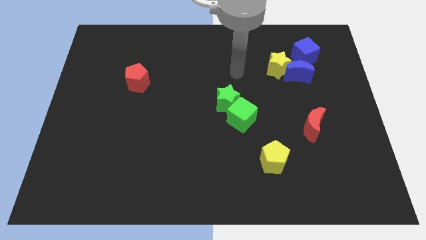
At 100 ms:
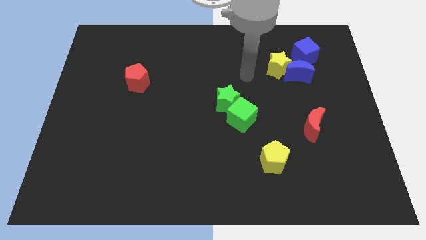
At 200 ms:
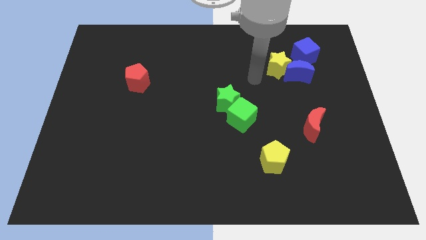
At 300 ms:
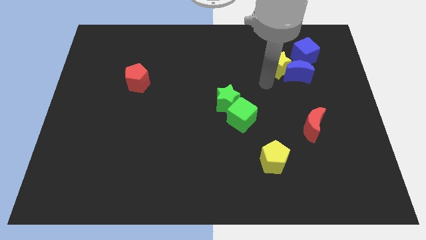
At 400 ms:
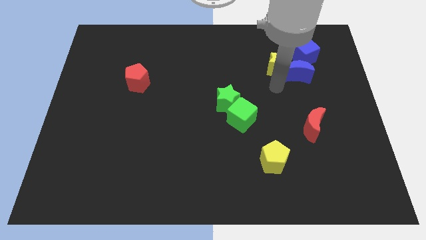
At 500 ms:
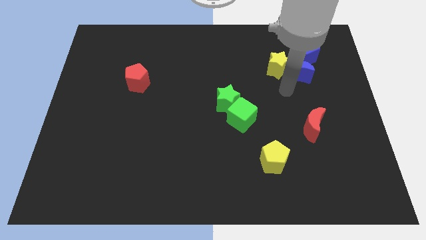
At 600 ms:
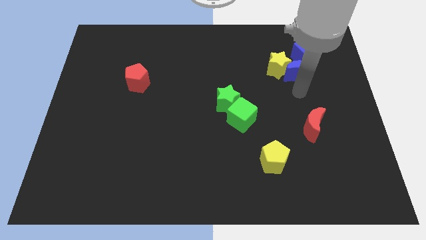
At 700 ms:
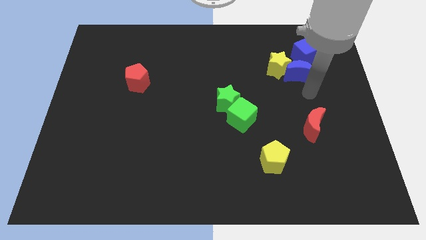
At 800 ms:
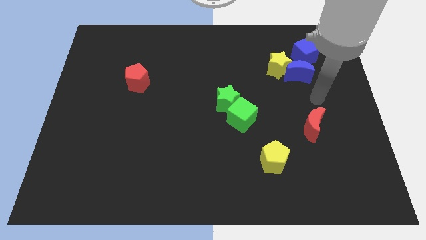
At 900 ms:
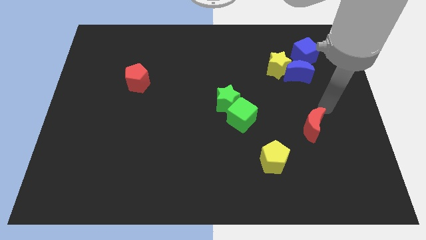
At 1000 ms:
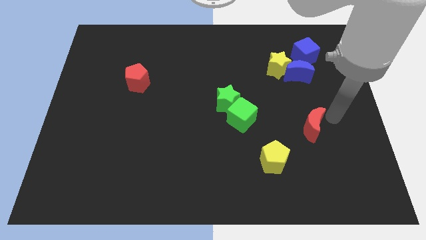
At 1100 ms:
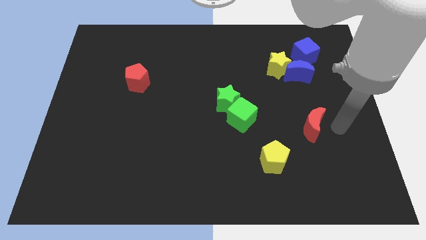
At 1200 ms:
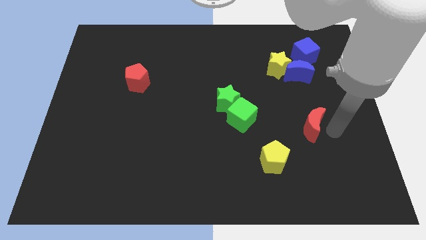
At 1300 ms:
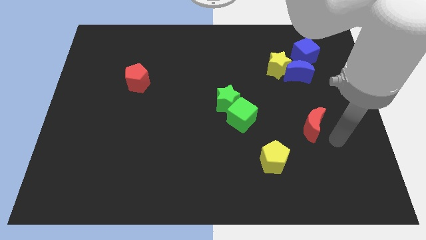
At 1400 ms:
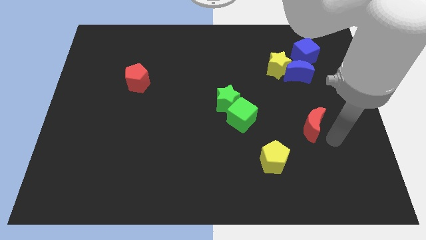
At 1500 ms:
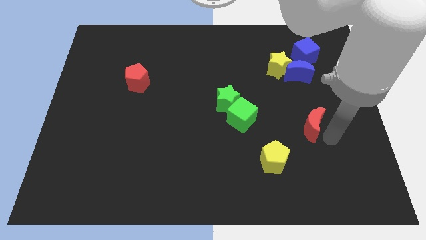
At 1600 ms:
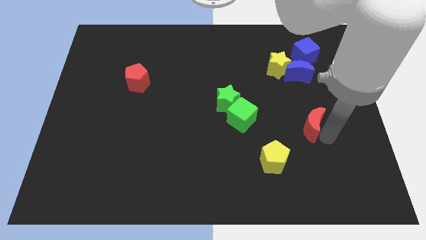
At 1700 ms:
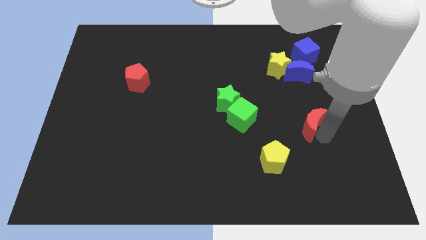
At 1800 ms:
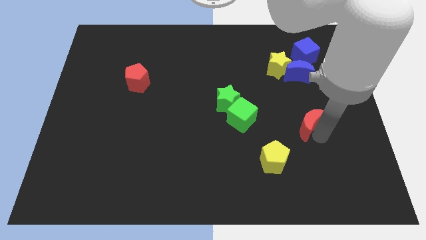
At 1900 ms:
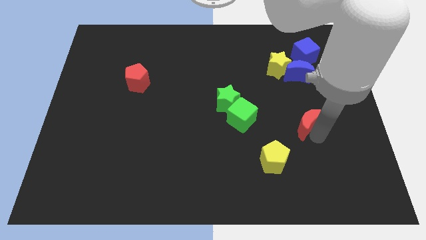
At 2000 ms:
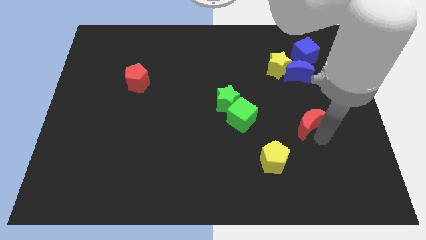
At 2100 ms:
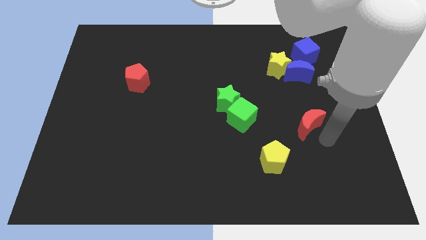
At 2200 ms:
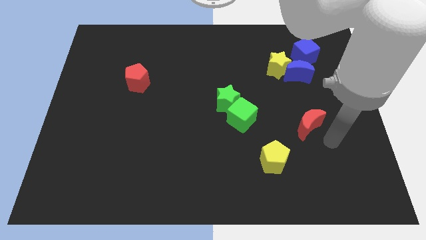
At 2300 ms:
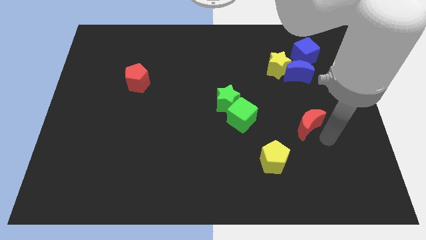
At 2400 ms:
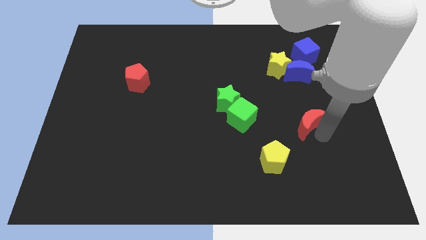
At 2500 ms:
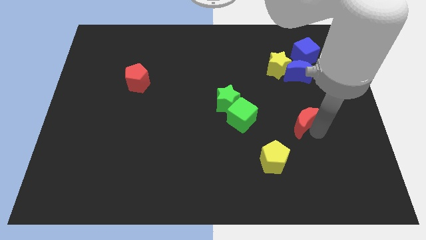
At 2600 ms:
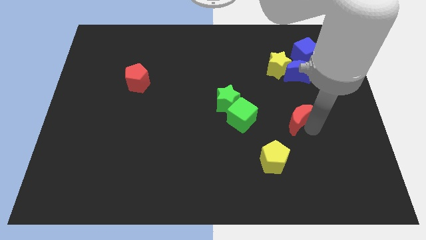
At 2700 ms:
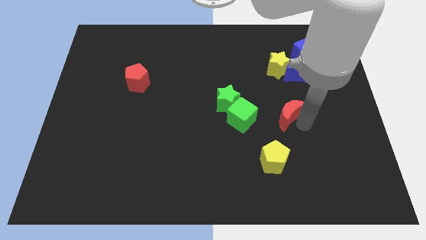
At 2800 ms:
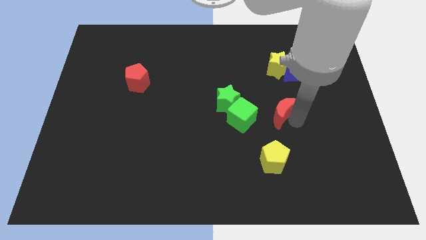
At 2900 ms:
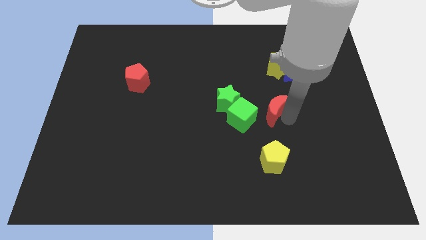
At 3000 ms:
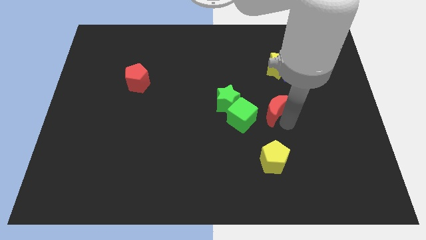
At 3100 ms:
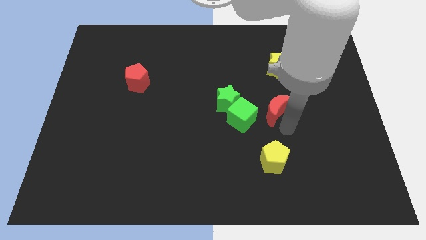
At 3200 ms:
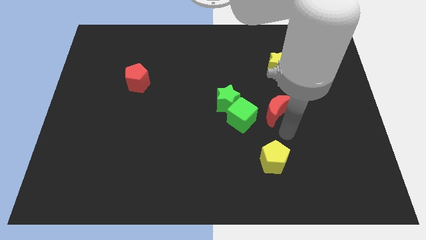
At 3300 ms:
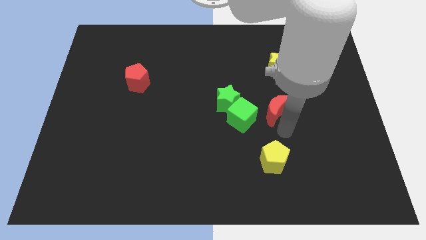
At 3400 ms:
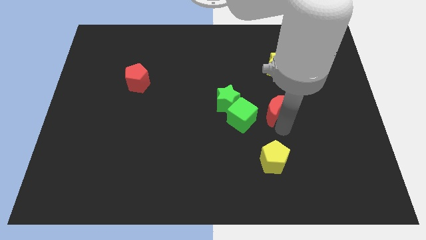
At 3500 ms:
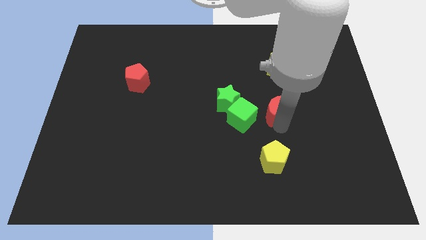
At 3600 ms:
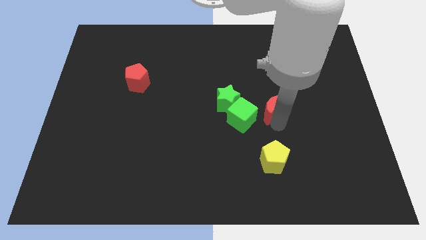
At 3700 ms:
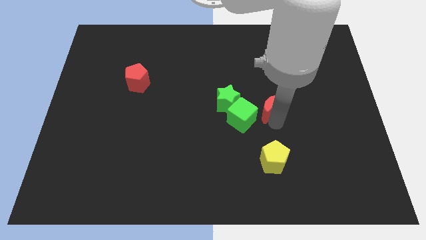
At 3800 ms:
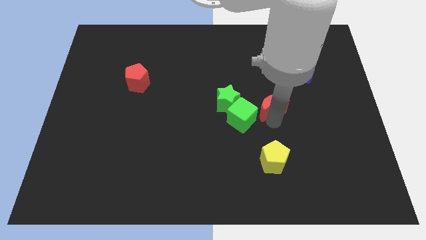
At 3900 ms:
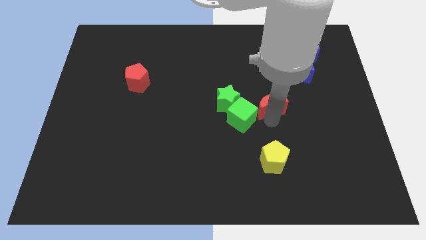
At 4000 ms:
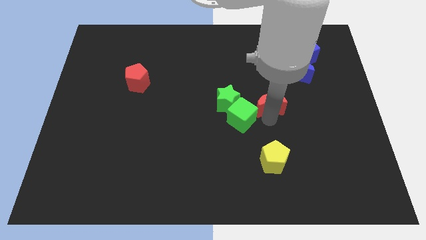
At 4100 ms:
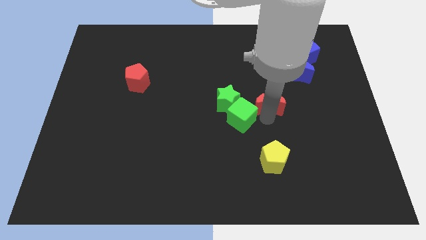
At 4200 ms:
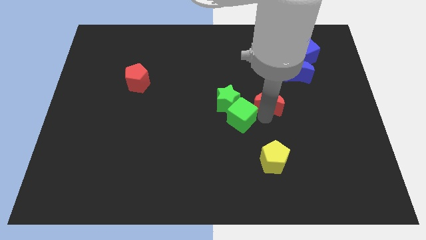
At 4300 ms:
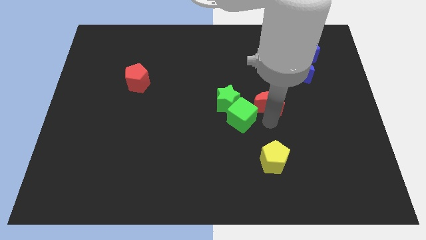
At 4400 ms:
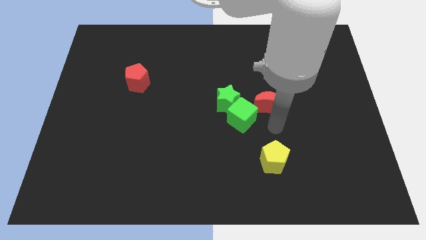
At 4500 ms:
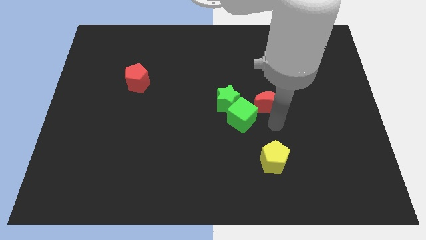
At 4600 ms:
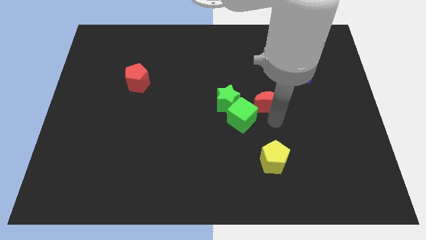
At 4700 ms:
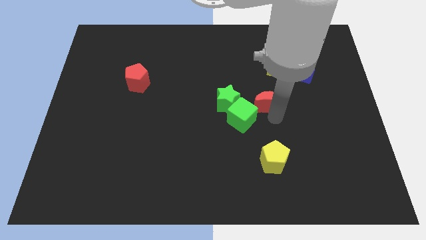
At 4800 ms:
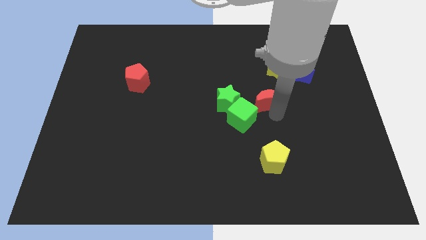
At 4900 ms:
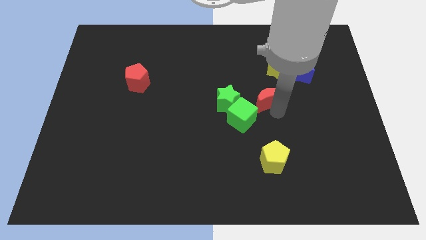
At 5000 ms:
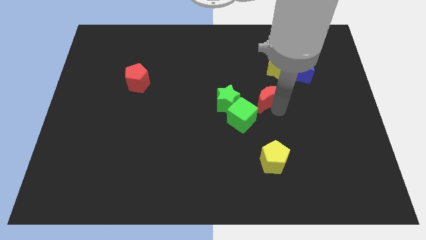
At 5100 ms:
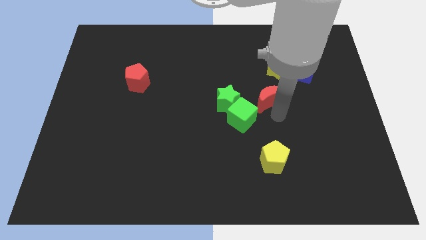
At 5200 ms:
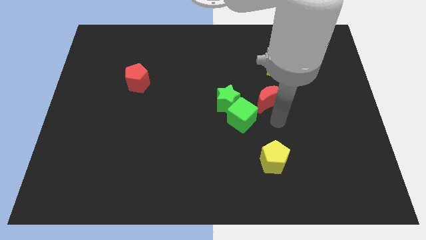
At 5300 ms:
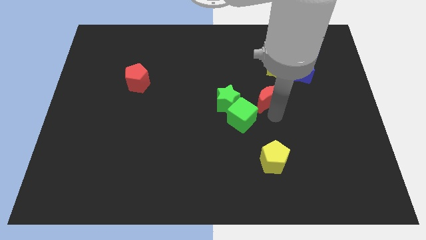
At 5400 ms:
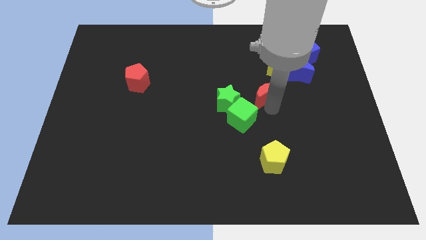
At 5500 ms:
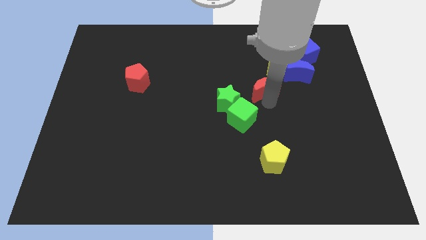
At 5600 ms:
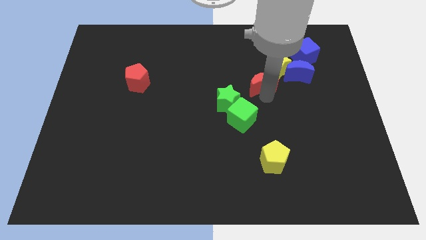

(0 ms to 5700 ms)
move the red moon left of the blue moon

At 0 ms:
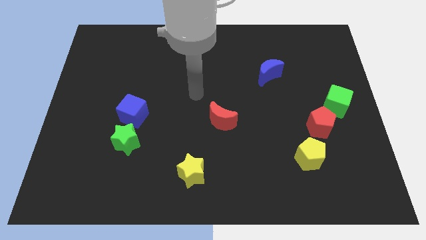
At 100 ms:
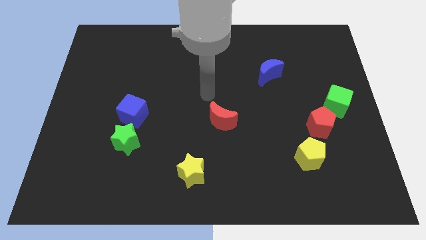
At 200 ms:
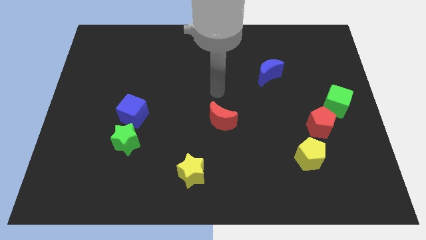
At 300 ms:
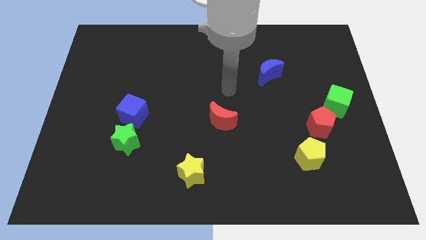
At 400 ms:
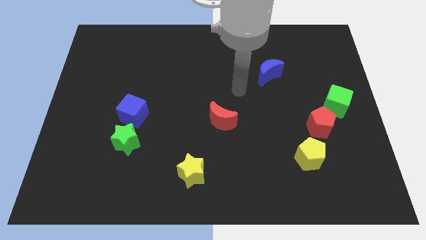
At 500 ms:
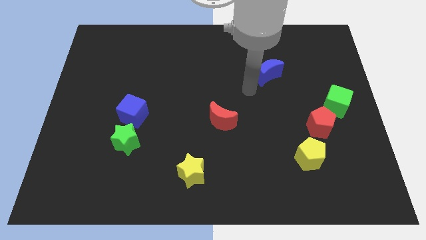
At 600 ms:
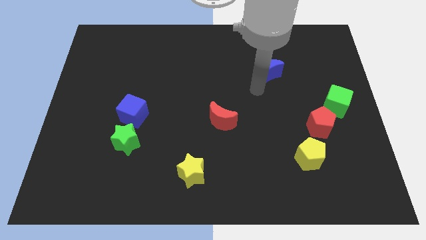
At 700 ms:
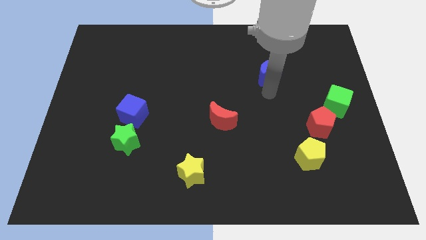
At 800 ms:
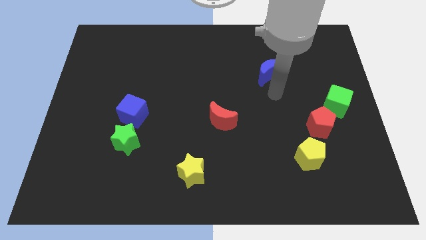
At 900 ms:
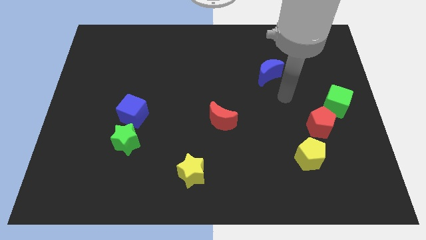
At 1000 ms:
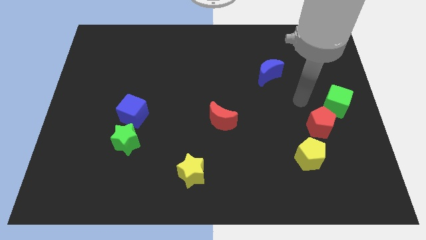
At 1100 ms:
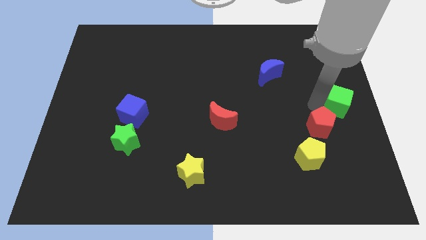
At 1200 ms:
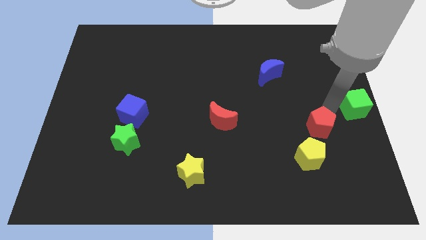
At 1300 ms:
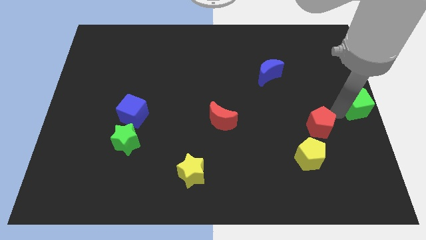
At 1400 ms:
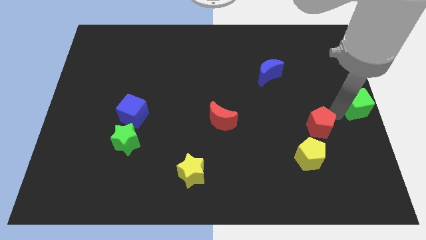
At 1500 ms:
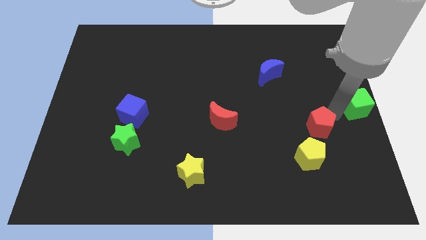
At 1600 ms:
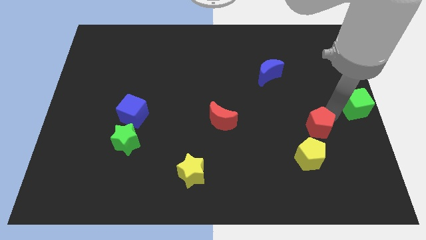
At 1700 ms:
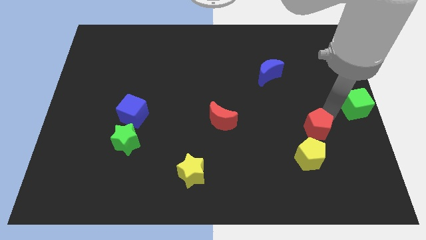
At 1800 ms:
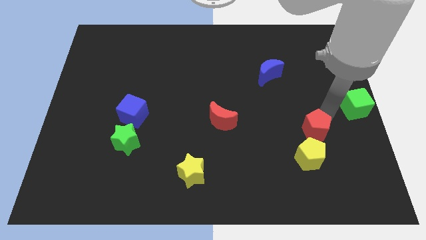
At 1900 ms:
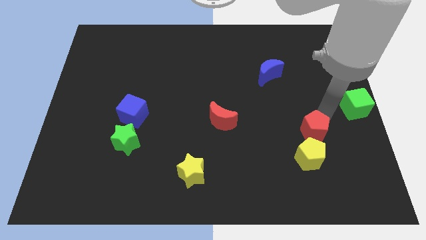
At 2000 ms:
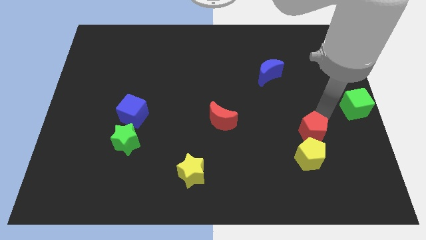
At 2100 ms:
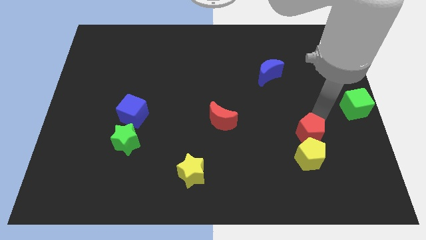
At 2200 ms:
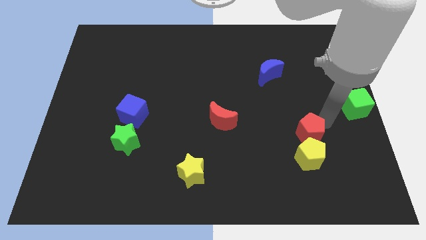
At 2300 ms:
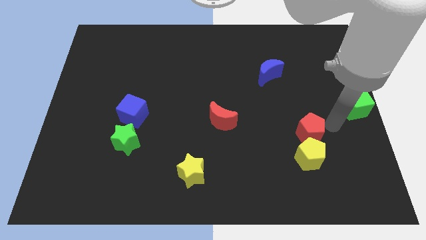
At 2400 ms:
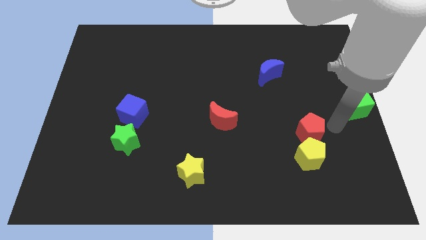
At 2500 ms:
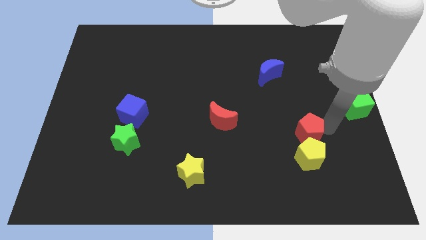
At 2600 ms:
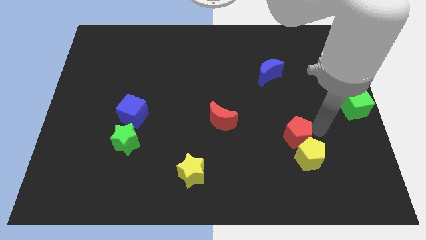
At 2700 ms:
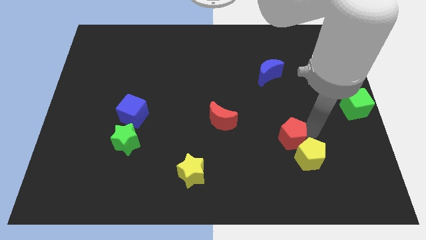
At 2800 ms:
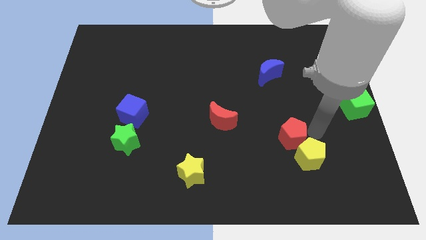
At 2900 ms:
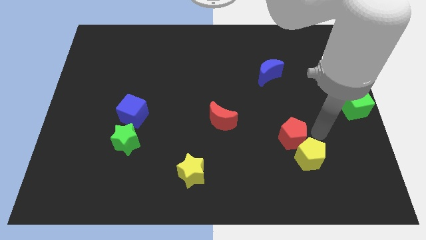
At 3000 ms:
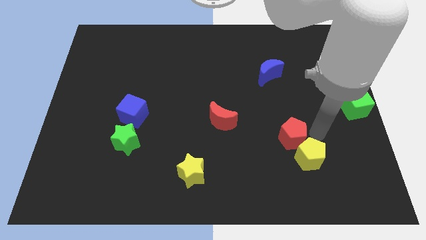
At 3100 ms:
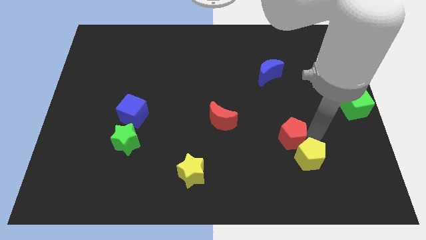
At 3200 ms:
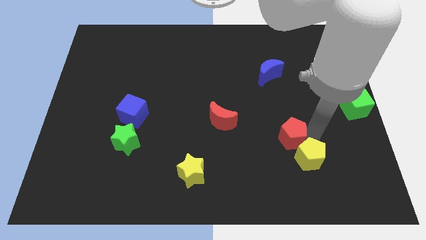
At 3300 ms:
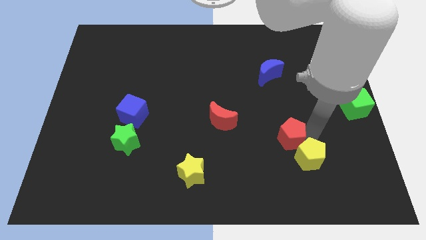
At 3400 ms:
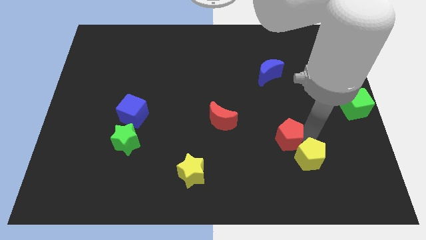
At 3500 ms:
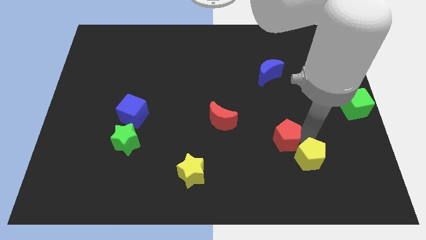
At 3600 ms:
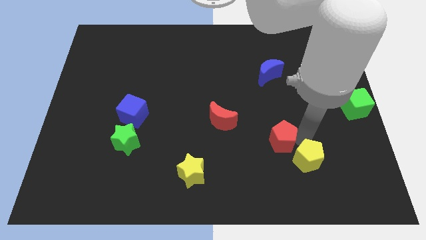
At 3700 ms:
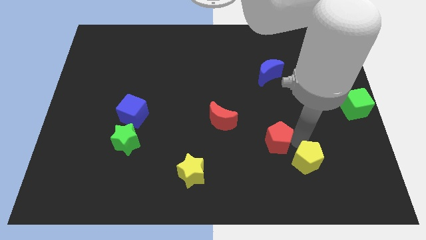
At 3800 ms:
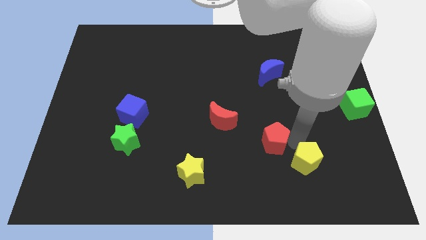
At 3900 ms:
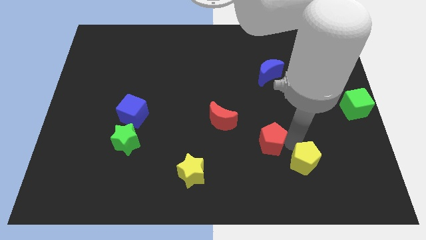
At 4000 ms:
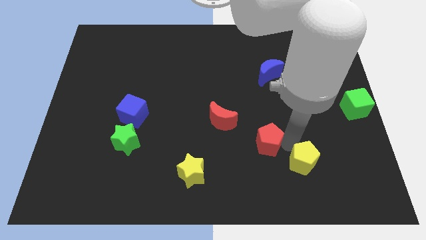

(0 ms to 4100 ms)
move the red pentagon diagonally down and to the right of the red moon
